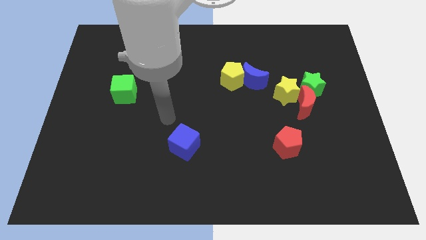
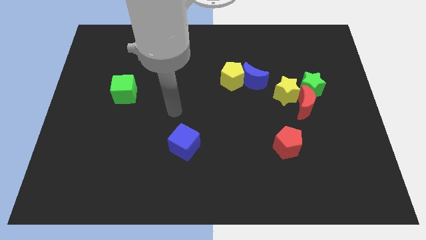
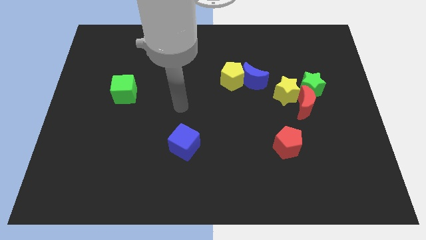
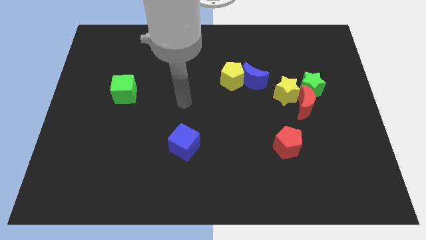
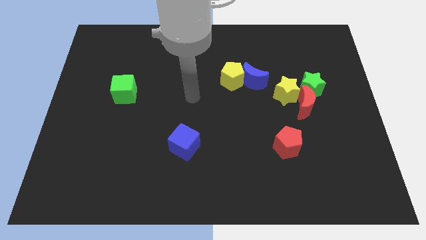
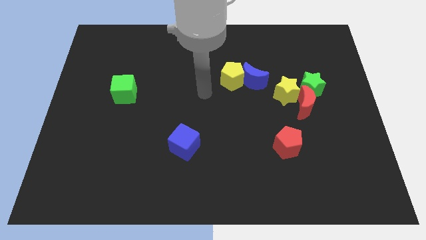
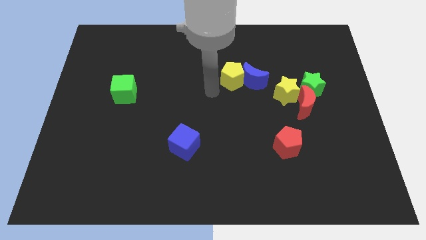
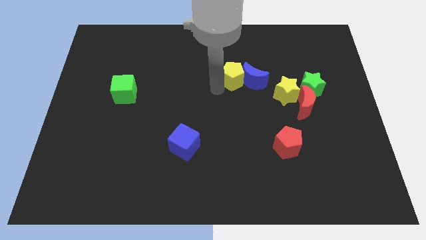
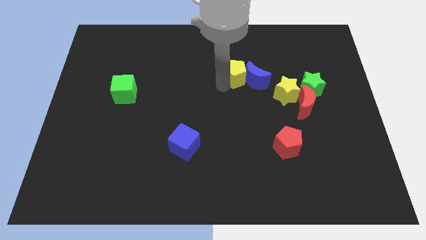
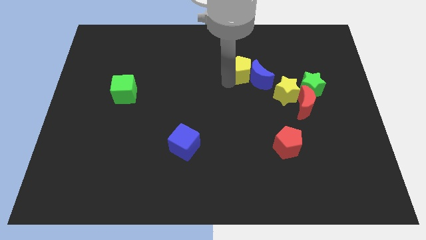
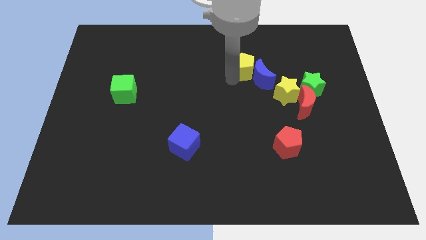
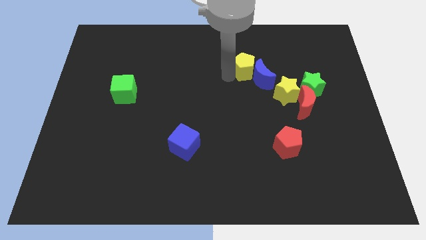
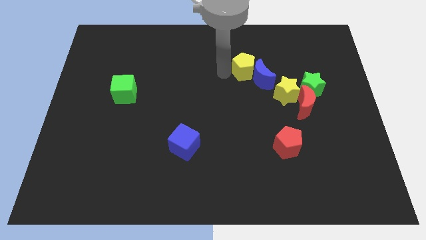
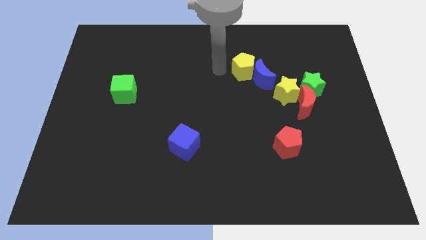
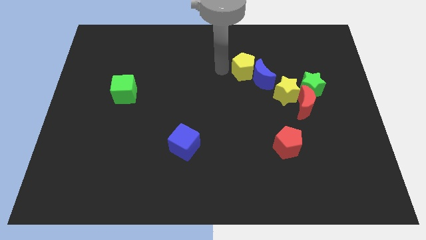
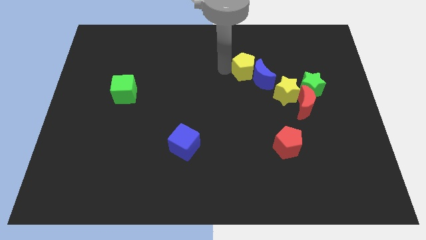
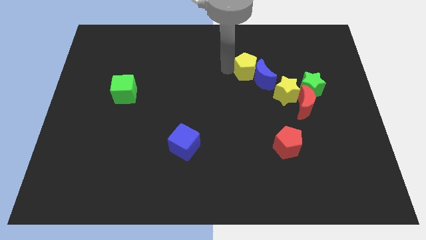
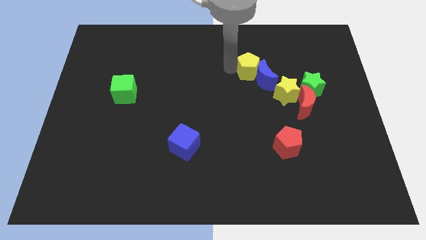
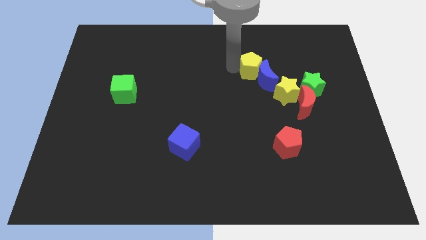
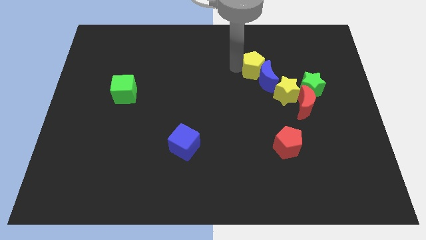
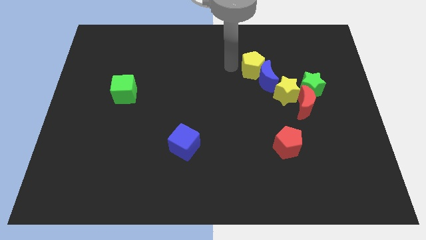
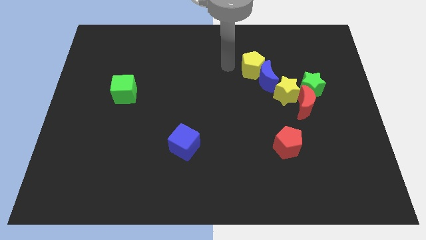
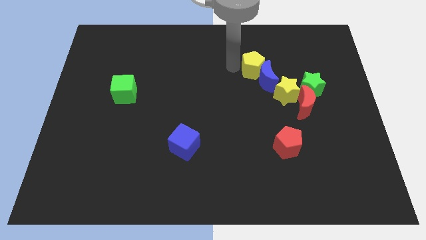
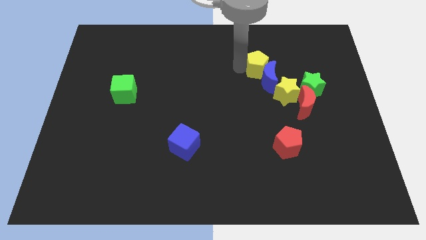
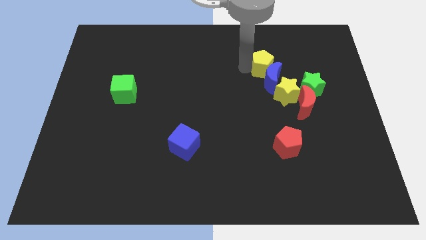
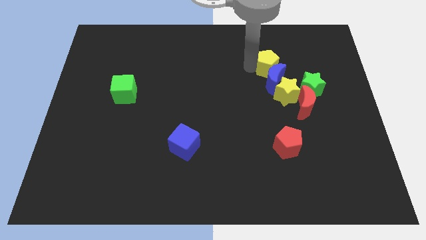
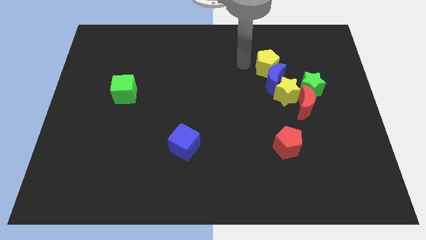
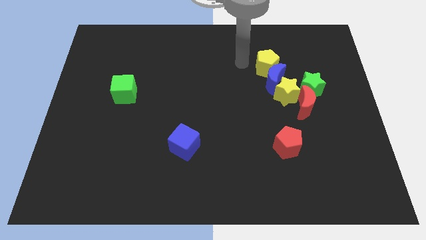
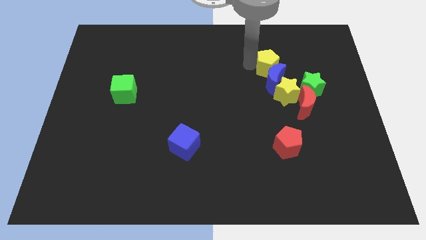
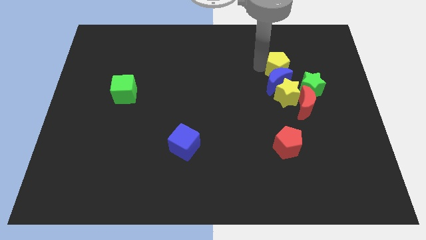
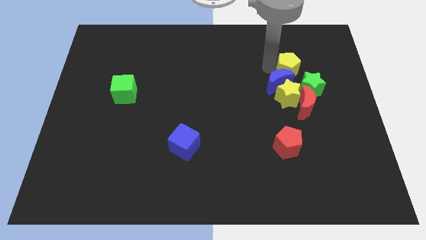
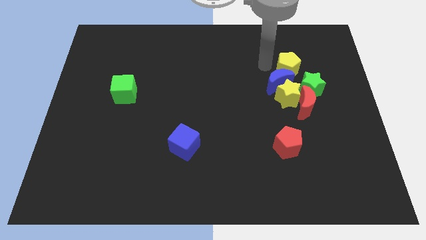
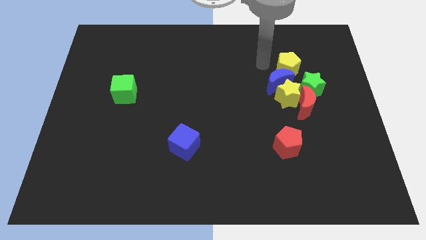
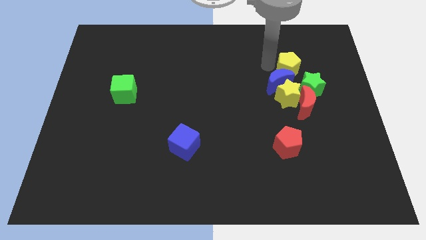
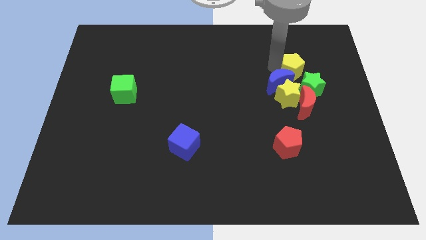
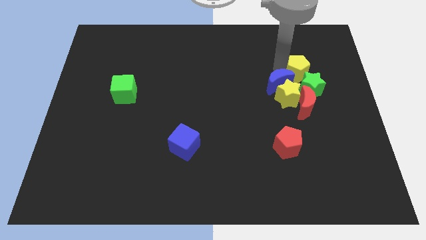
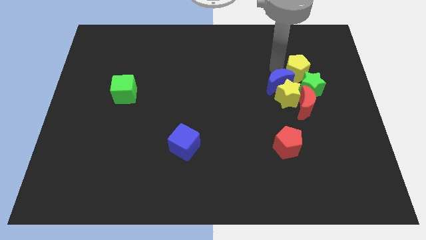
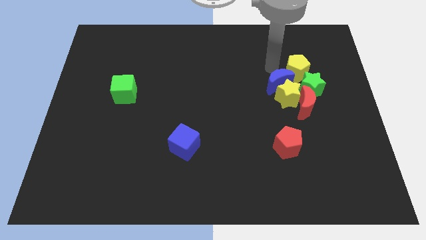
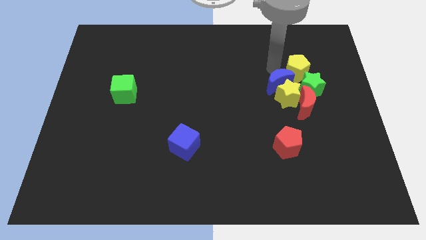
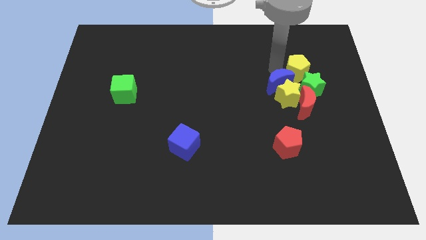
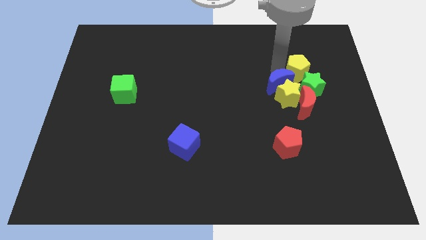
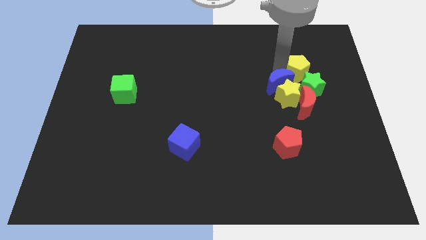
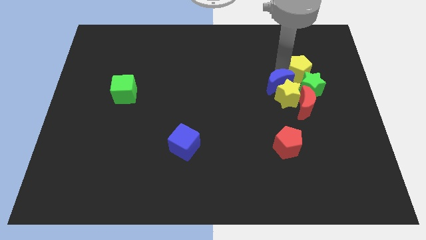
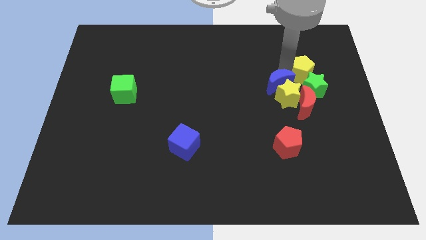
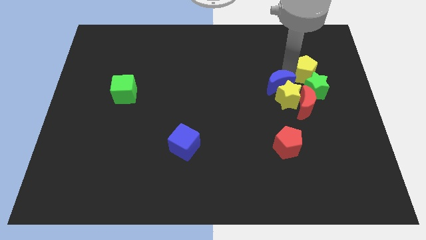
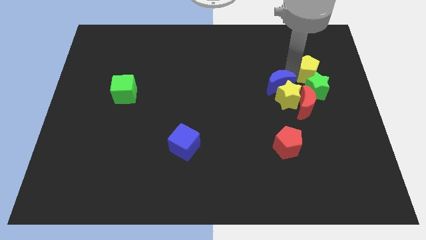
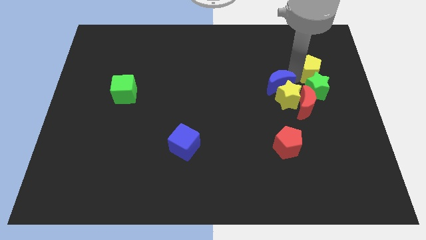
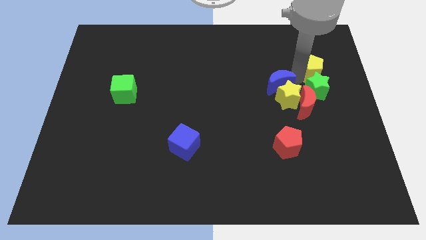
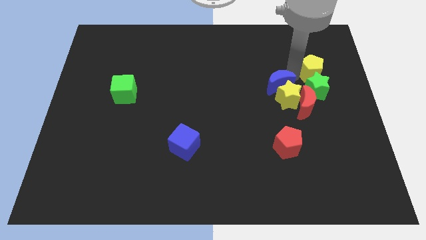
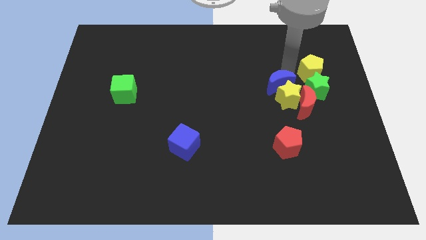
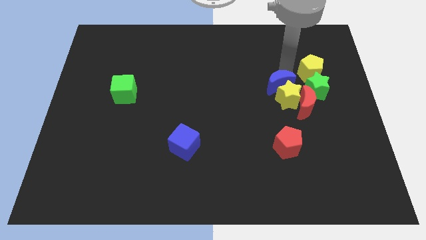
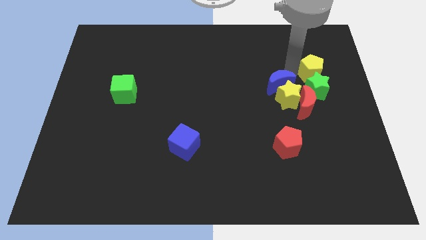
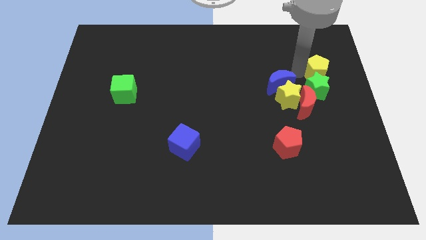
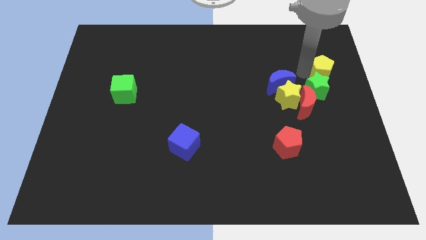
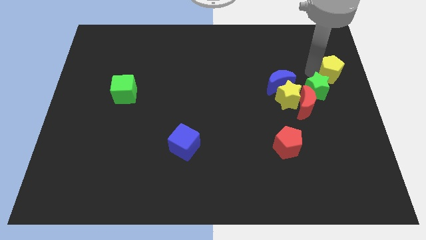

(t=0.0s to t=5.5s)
put the yellow pentagon to the center right

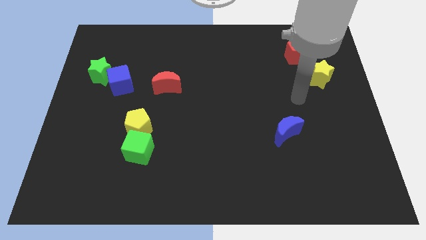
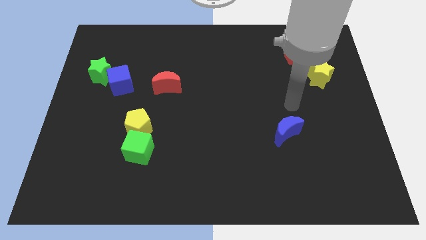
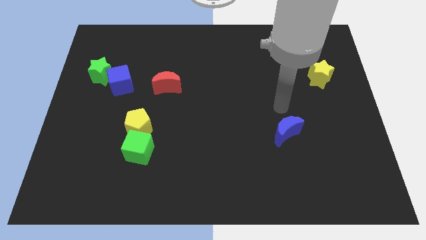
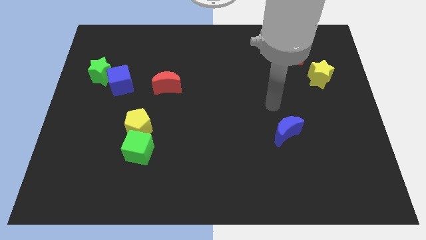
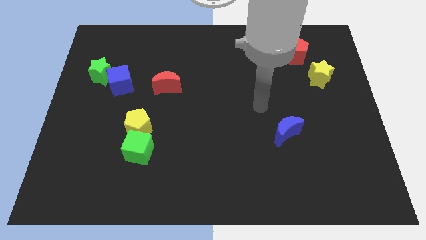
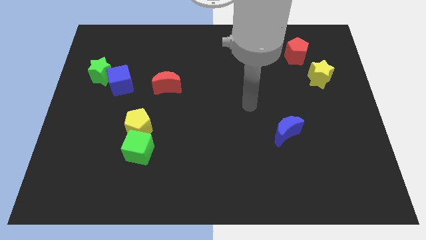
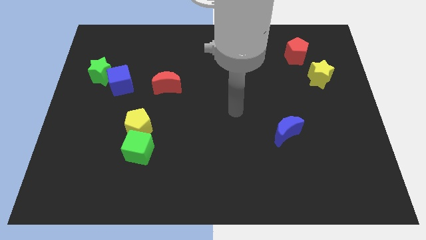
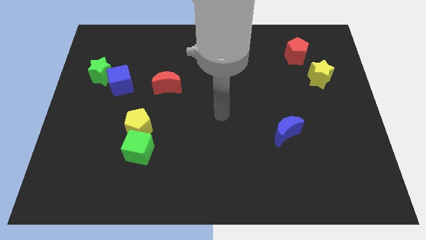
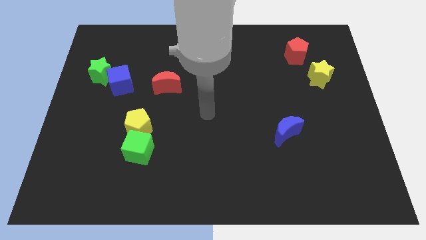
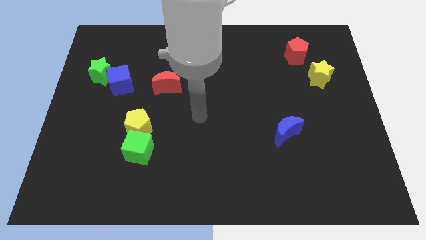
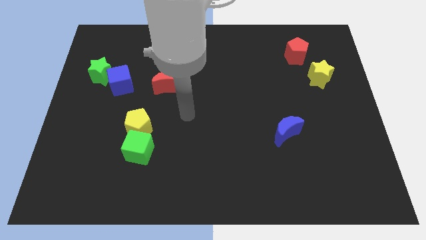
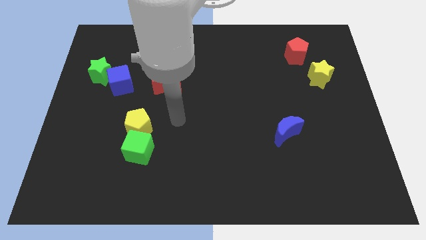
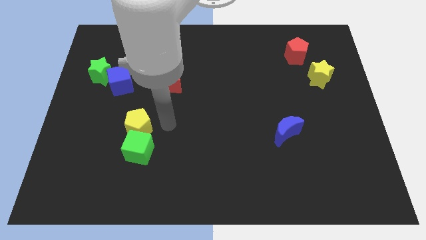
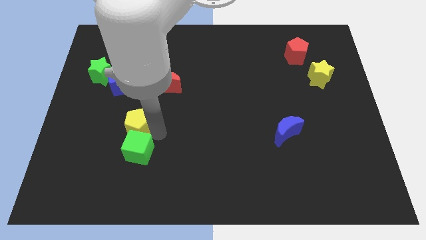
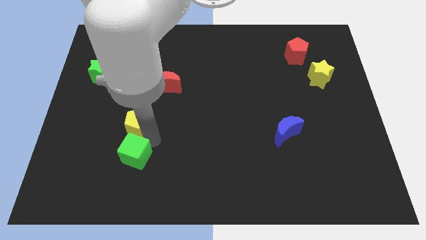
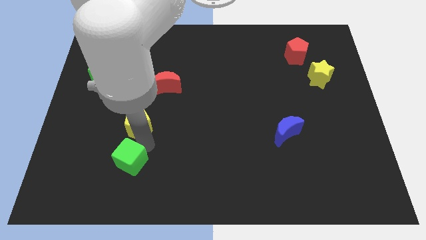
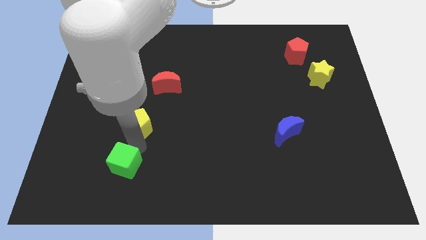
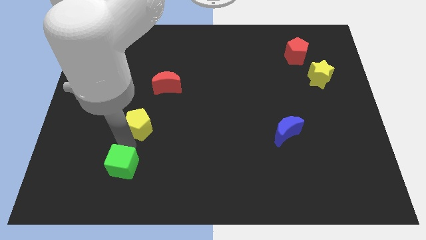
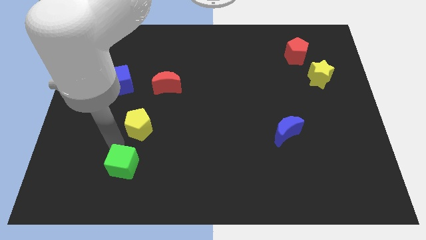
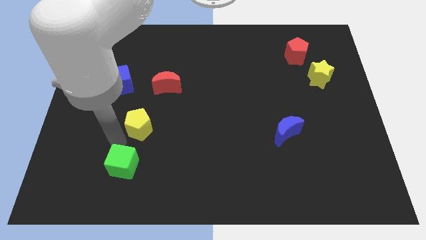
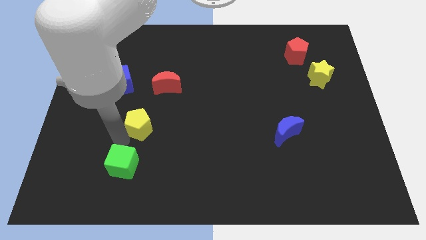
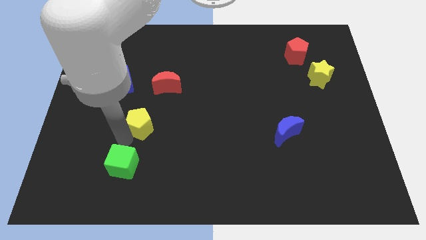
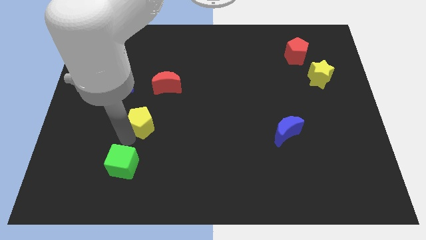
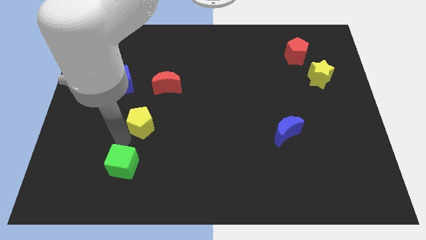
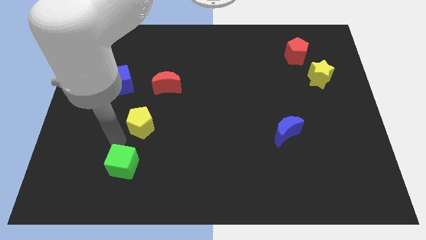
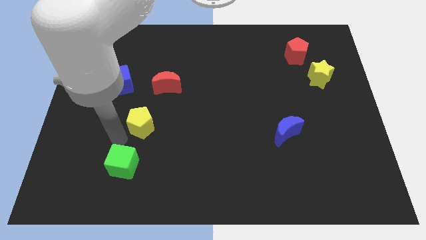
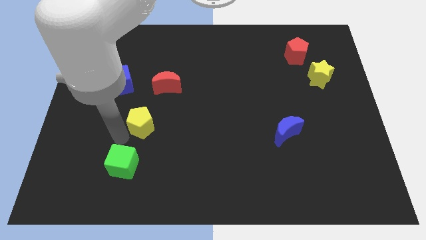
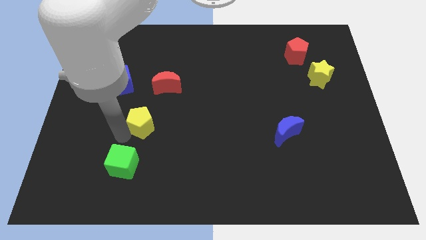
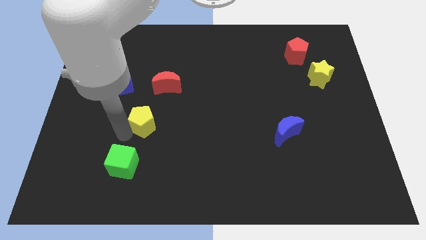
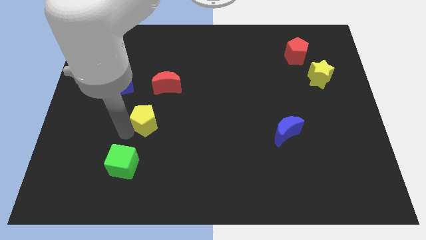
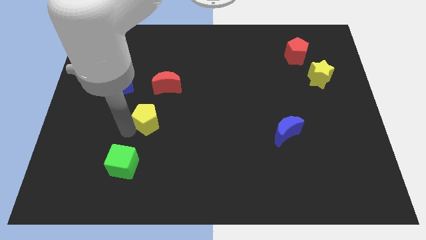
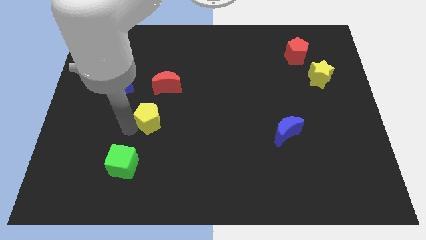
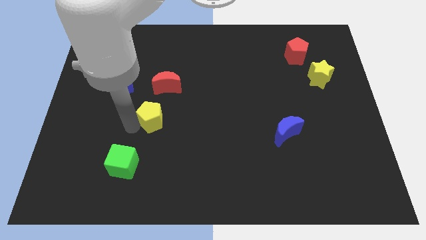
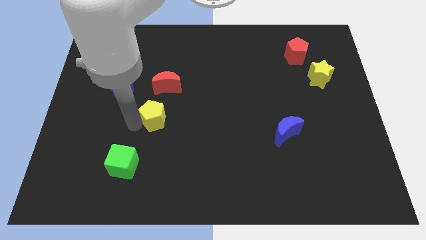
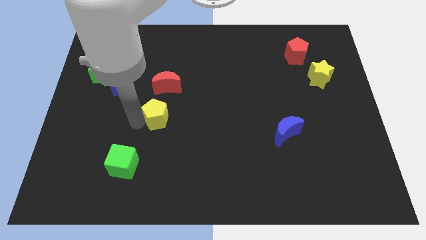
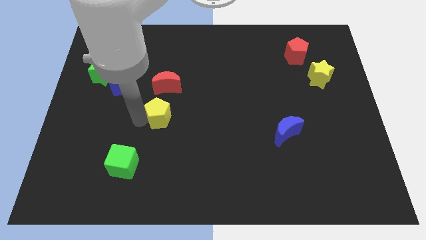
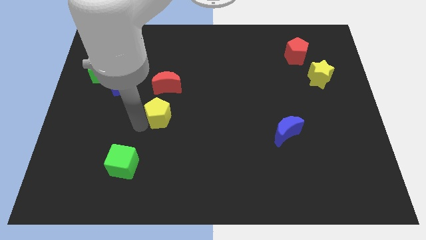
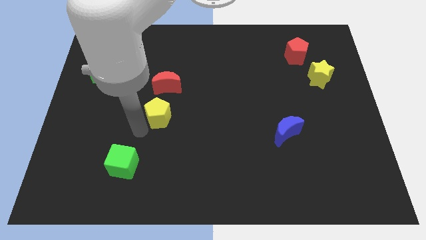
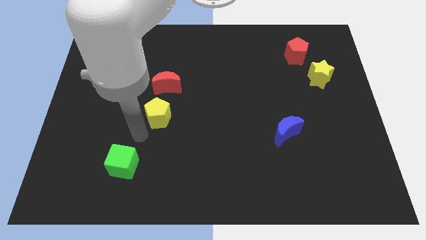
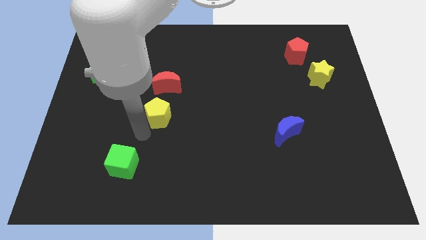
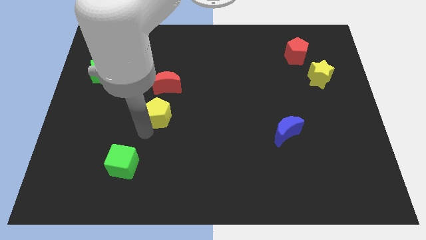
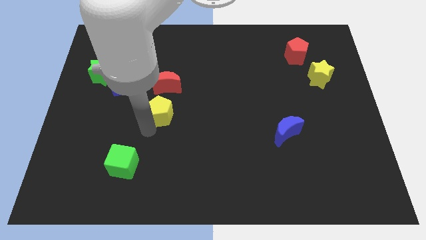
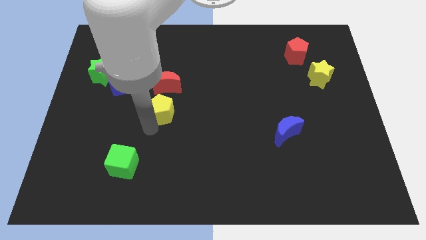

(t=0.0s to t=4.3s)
move the yellow pentagon to the center
